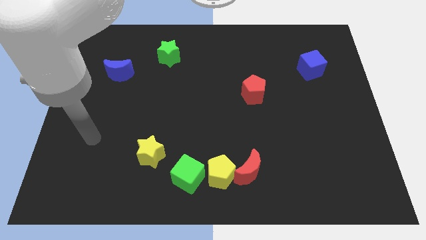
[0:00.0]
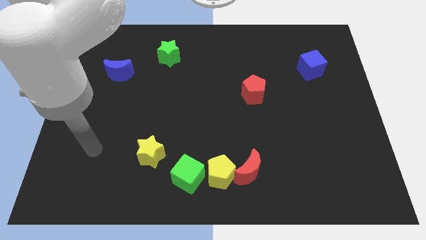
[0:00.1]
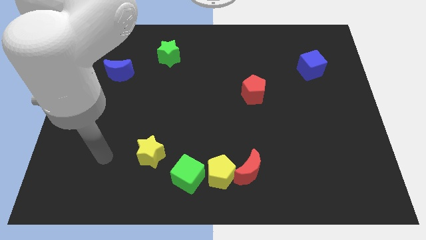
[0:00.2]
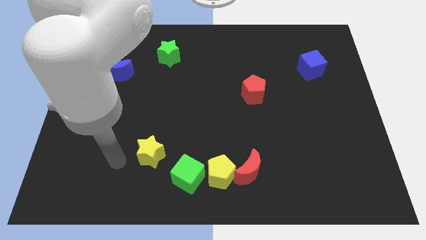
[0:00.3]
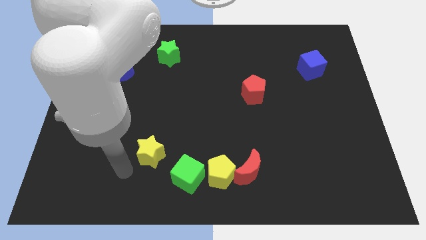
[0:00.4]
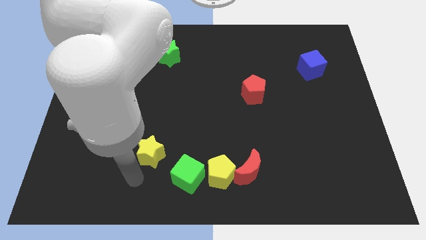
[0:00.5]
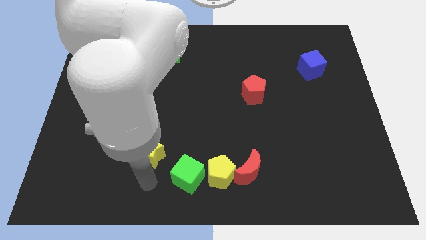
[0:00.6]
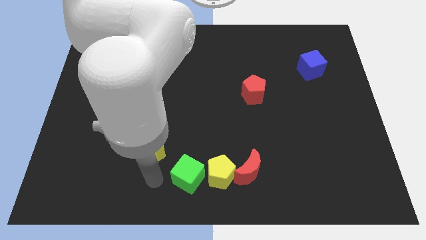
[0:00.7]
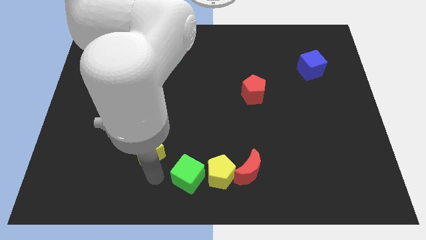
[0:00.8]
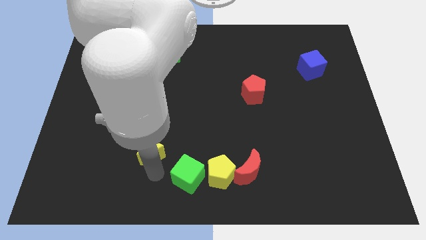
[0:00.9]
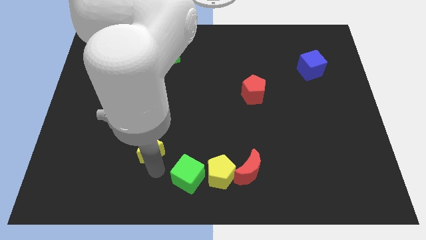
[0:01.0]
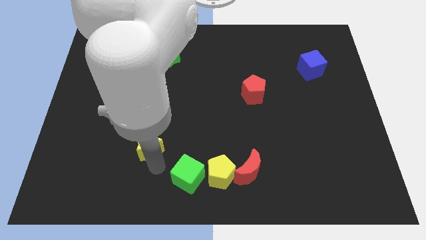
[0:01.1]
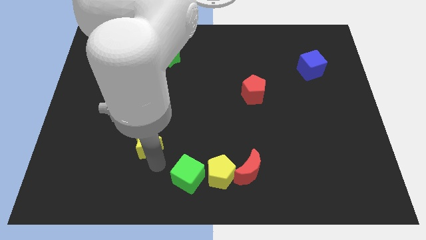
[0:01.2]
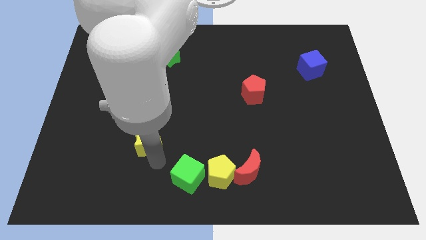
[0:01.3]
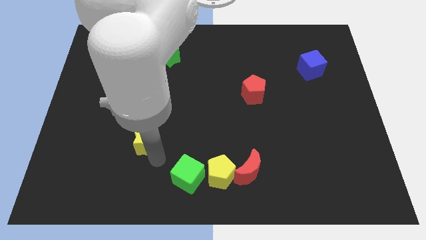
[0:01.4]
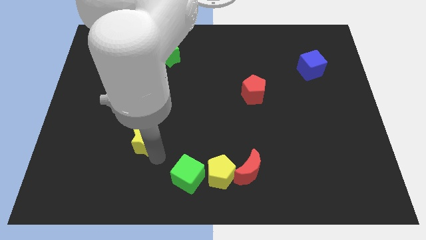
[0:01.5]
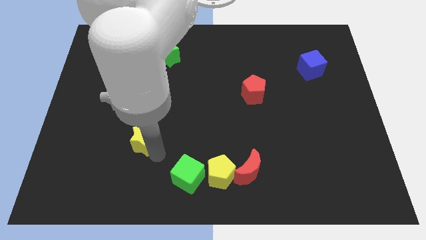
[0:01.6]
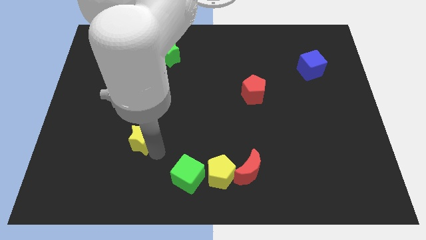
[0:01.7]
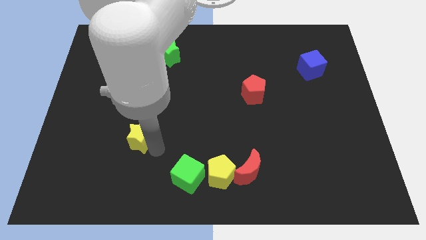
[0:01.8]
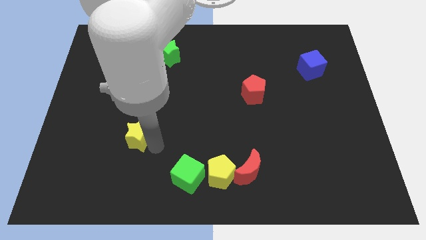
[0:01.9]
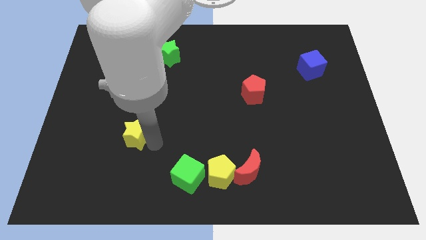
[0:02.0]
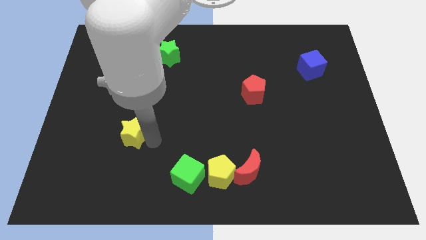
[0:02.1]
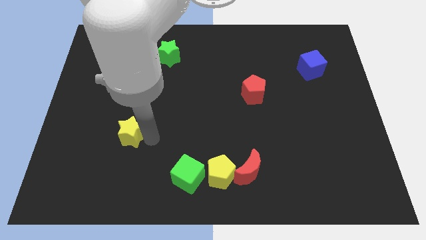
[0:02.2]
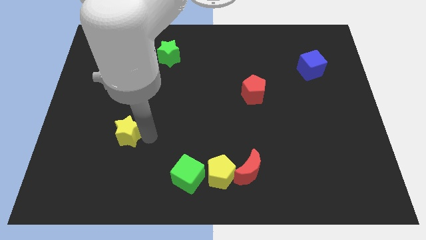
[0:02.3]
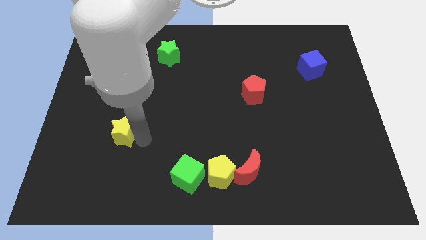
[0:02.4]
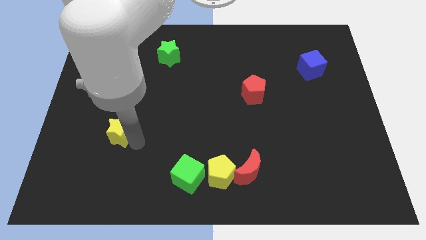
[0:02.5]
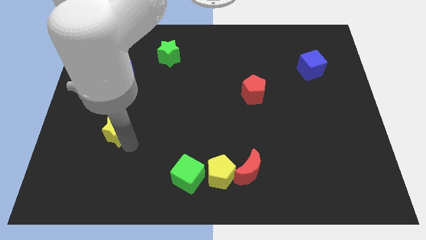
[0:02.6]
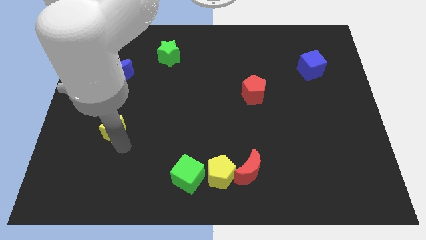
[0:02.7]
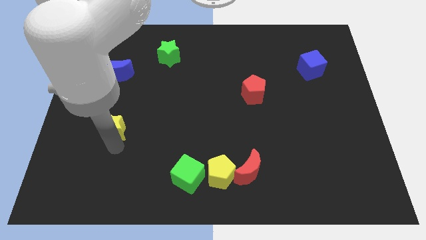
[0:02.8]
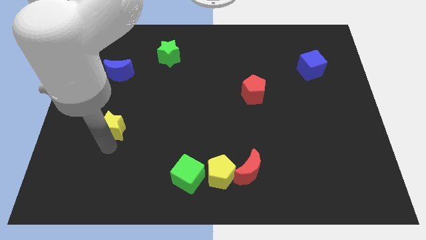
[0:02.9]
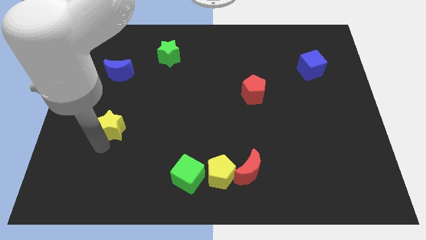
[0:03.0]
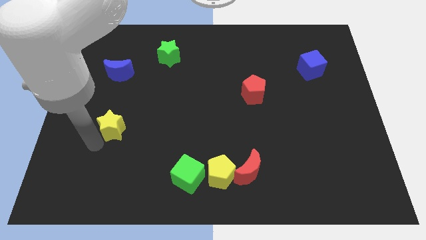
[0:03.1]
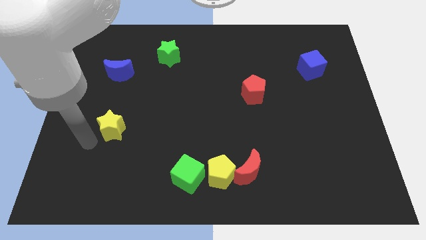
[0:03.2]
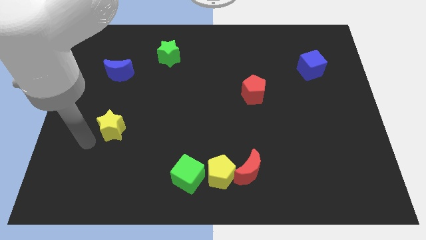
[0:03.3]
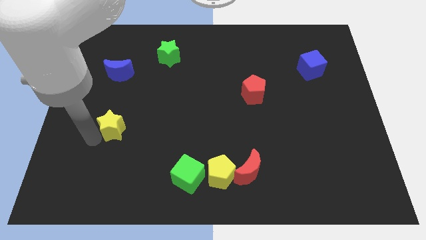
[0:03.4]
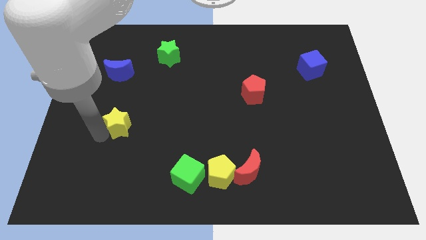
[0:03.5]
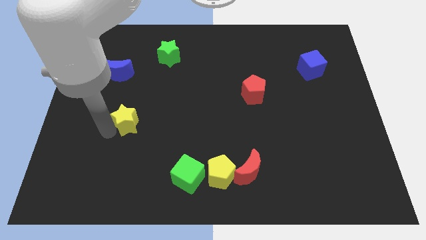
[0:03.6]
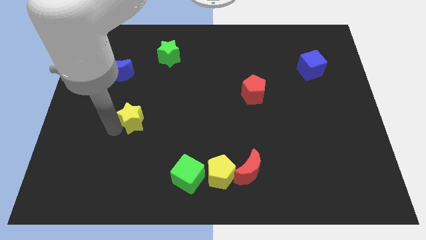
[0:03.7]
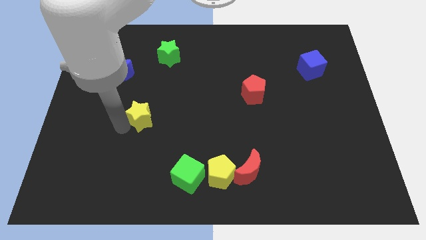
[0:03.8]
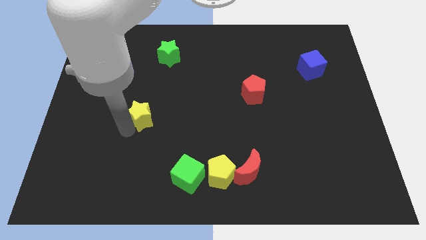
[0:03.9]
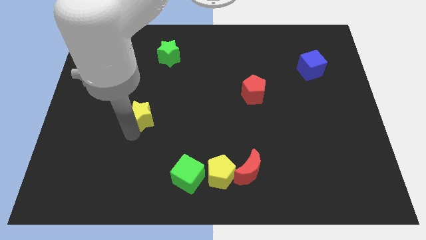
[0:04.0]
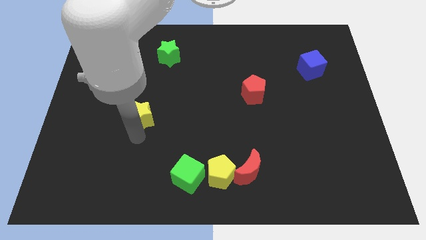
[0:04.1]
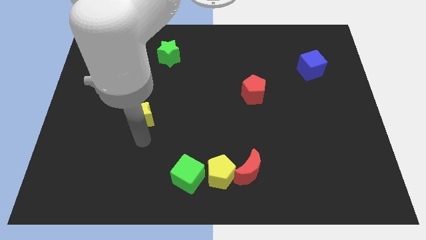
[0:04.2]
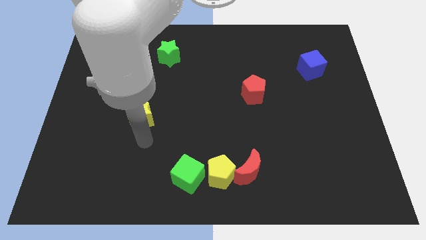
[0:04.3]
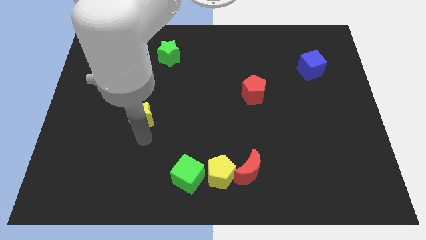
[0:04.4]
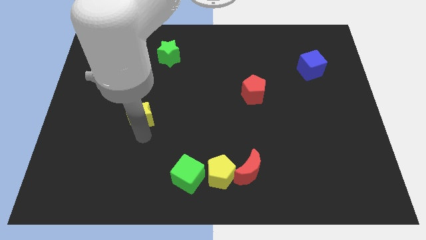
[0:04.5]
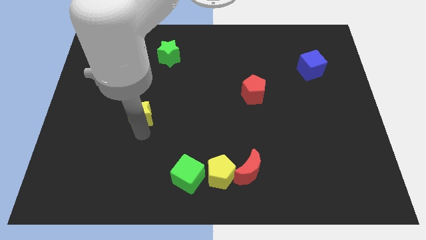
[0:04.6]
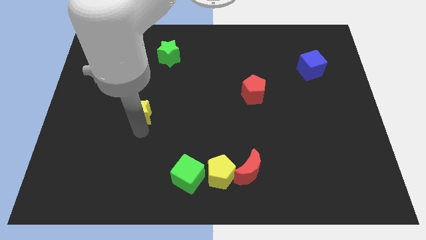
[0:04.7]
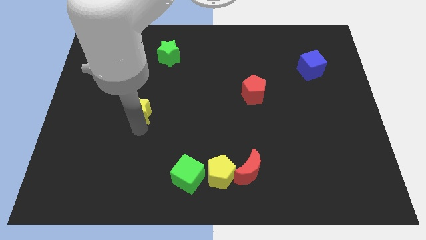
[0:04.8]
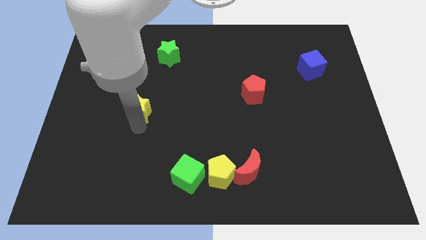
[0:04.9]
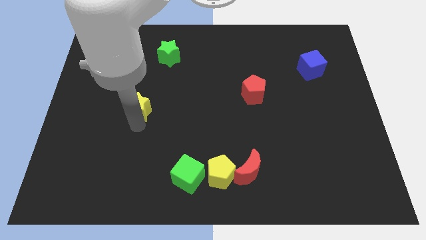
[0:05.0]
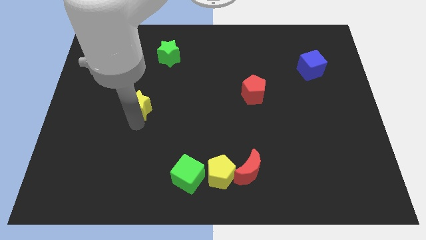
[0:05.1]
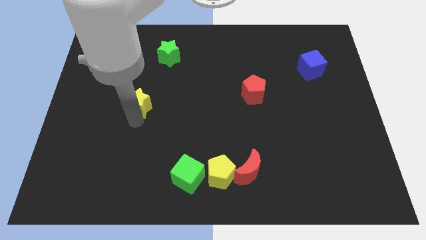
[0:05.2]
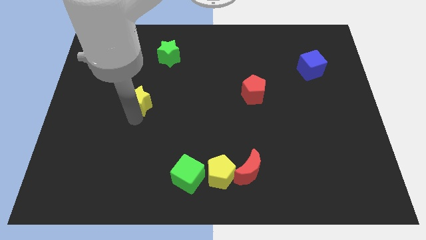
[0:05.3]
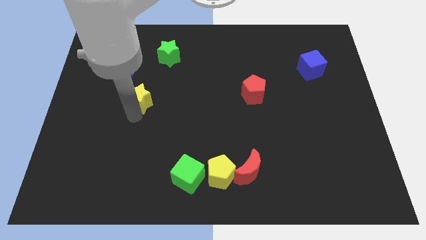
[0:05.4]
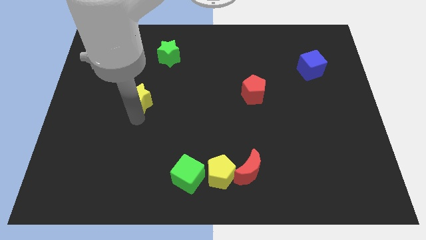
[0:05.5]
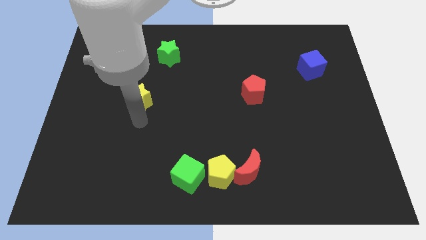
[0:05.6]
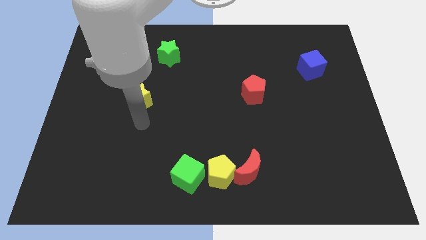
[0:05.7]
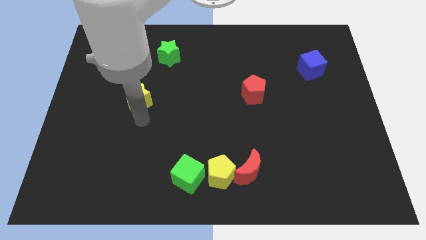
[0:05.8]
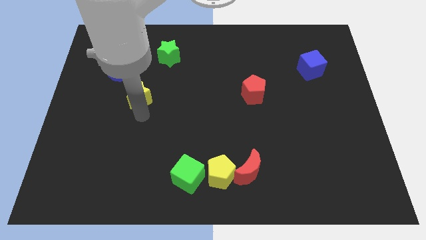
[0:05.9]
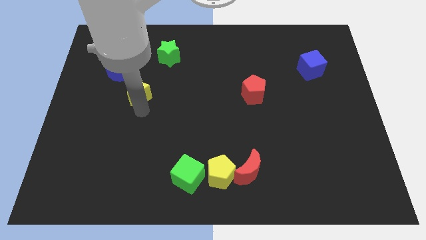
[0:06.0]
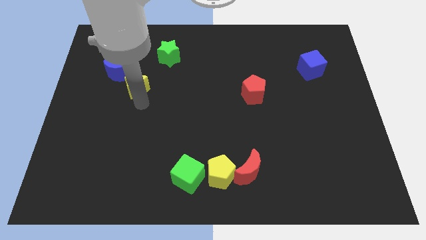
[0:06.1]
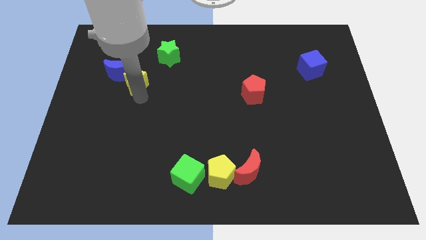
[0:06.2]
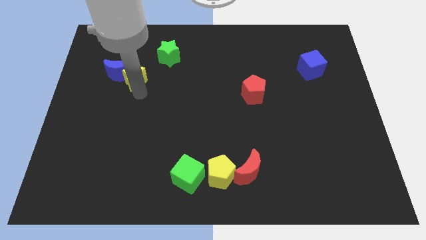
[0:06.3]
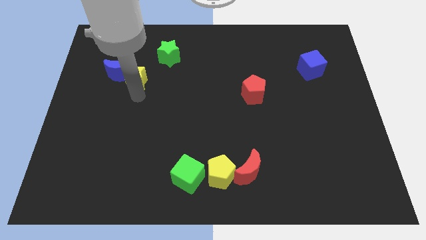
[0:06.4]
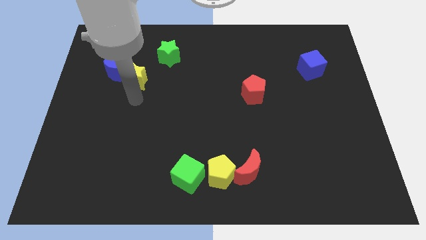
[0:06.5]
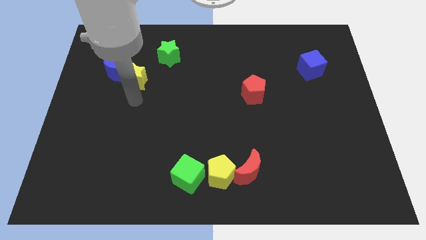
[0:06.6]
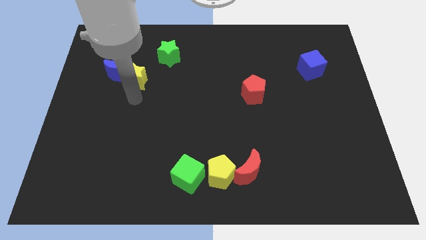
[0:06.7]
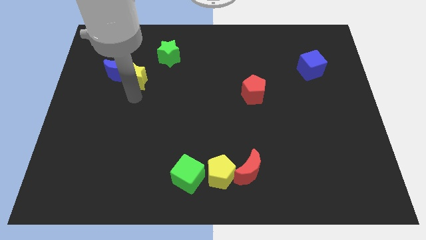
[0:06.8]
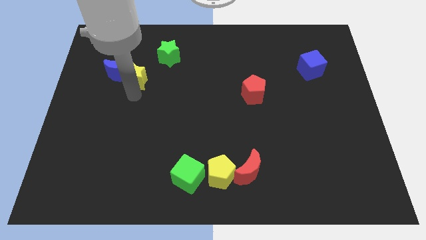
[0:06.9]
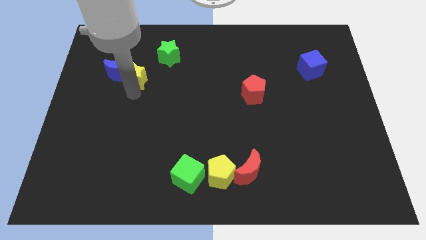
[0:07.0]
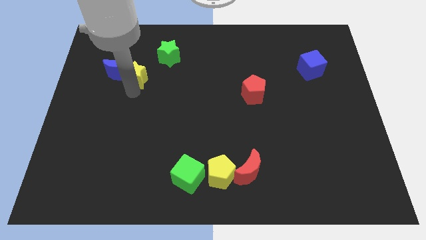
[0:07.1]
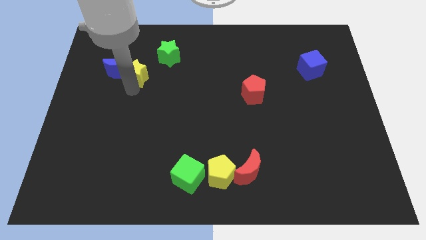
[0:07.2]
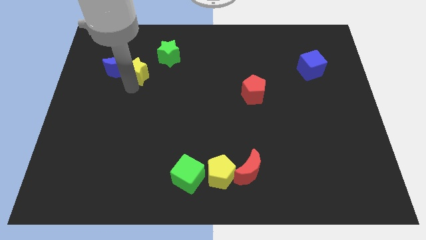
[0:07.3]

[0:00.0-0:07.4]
push the yellow star to the top right of the blue moon
